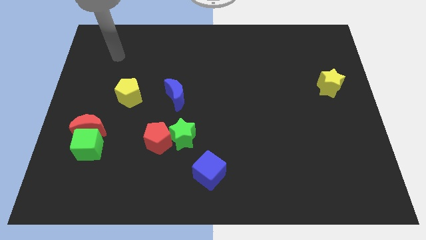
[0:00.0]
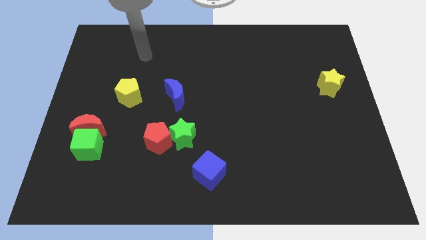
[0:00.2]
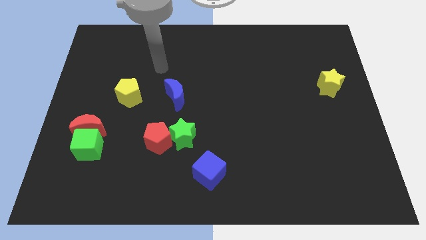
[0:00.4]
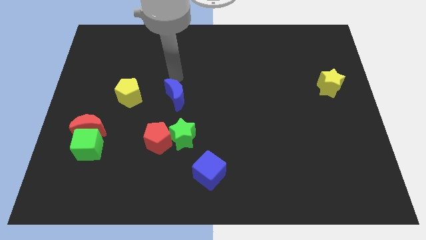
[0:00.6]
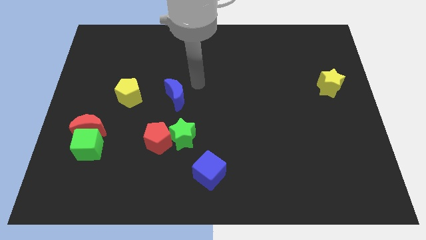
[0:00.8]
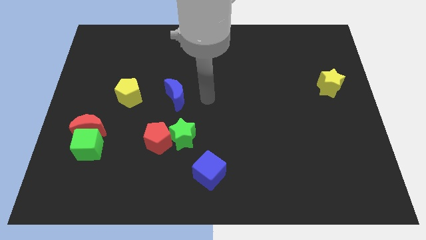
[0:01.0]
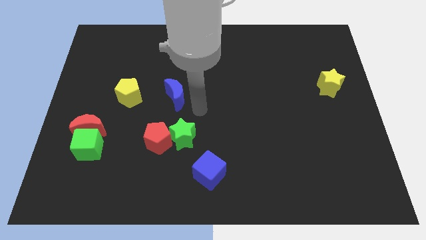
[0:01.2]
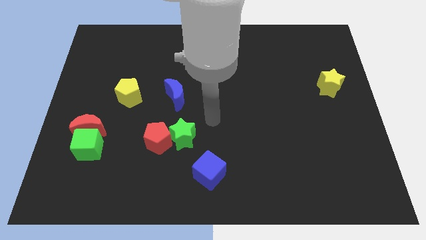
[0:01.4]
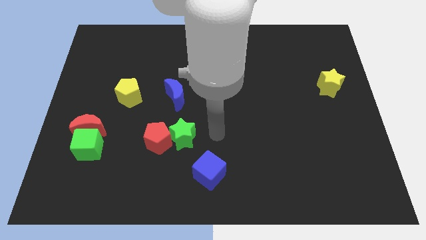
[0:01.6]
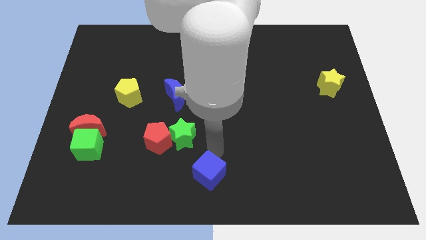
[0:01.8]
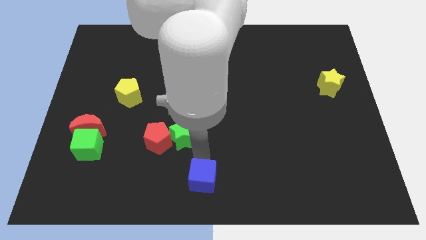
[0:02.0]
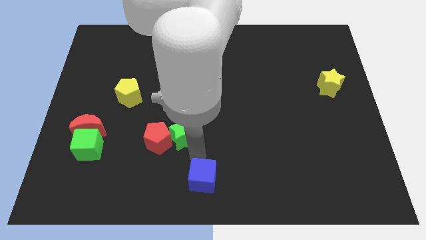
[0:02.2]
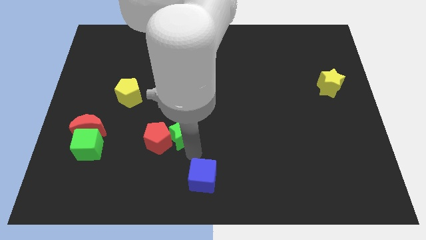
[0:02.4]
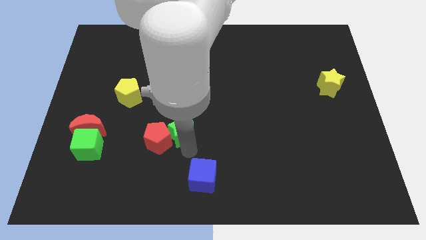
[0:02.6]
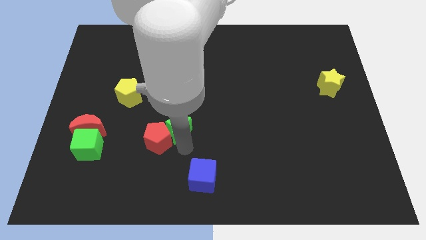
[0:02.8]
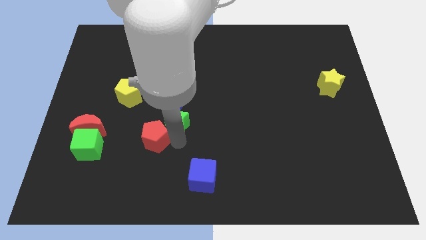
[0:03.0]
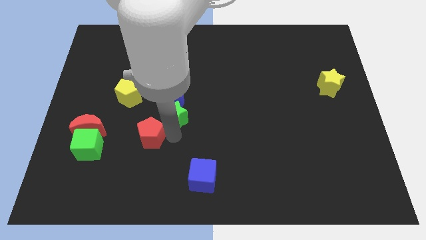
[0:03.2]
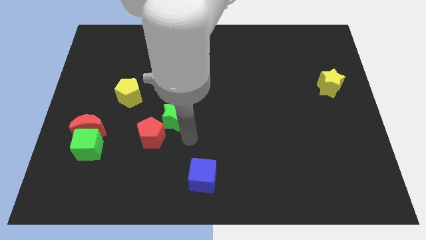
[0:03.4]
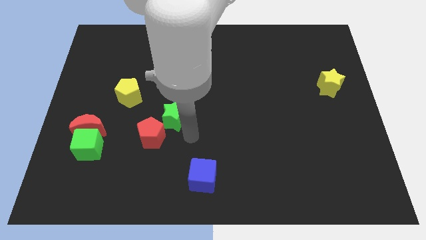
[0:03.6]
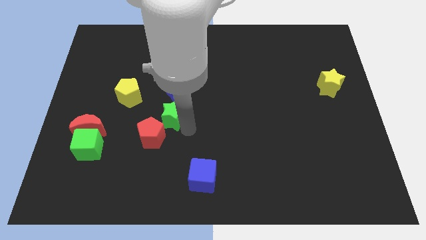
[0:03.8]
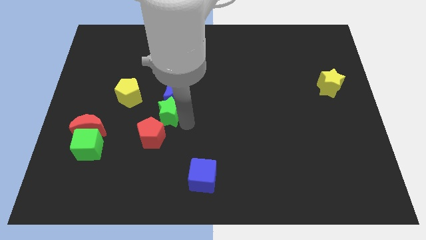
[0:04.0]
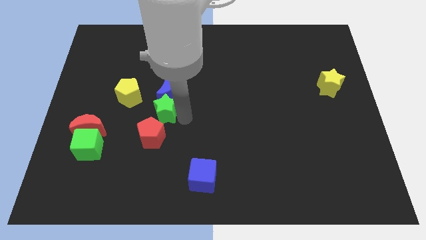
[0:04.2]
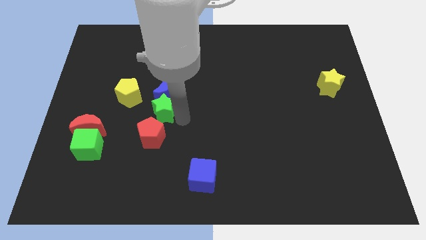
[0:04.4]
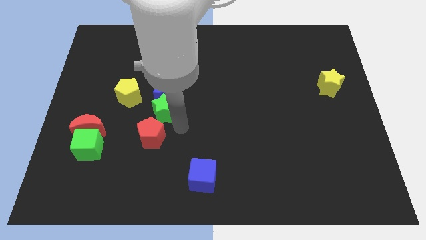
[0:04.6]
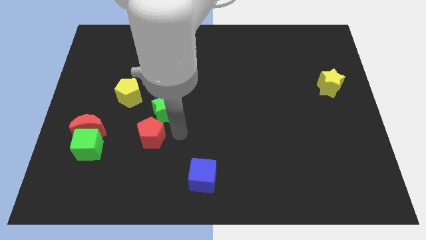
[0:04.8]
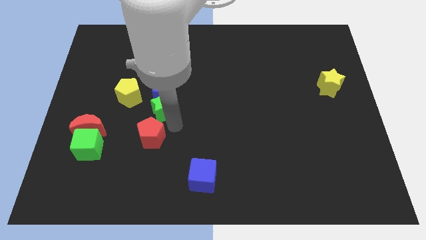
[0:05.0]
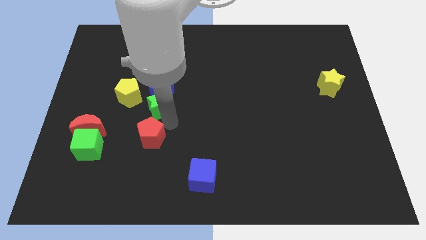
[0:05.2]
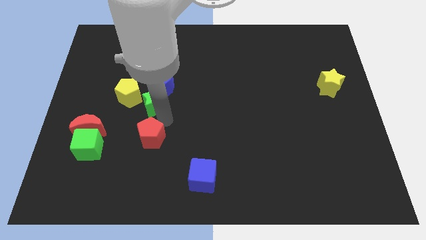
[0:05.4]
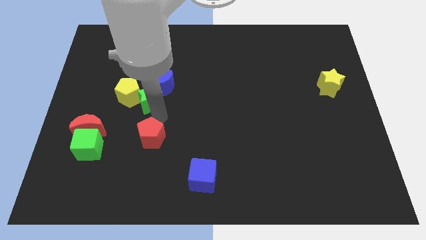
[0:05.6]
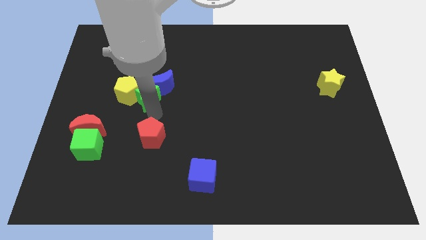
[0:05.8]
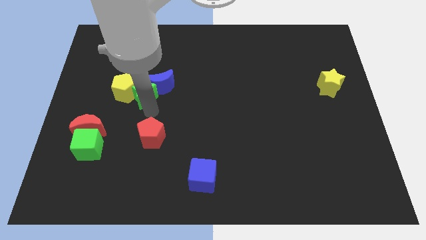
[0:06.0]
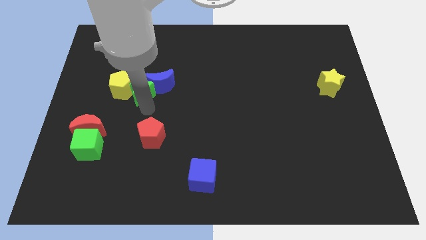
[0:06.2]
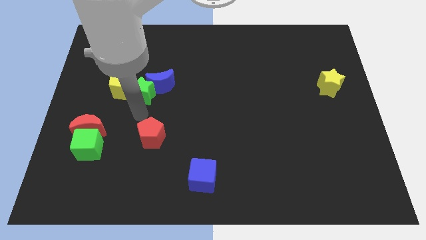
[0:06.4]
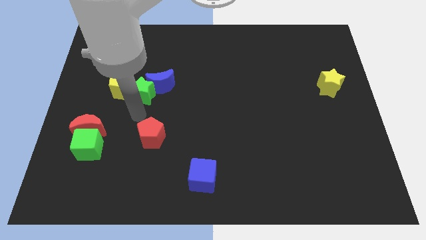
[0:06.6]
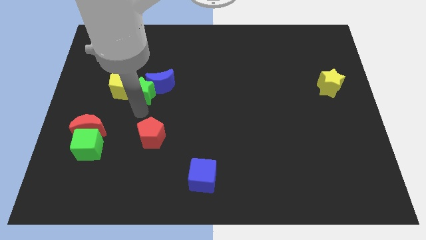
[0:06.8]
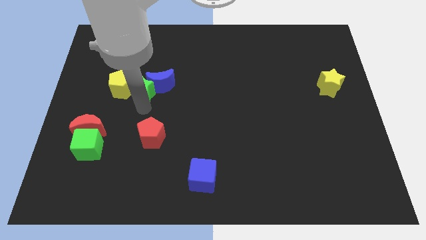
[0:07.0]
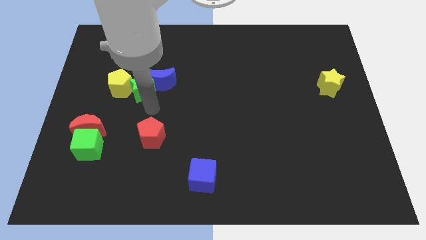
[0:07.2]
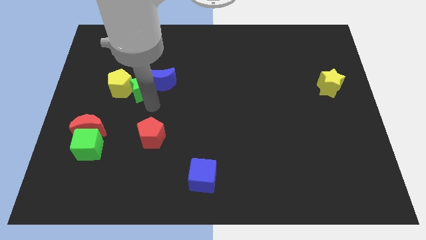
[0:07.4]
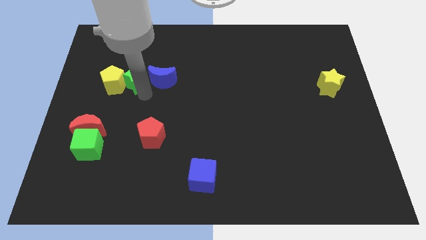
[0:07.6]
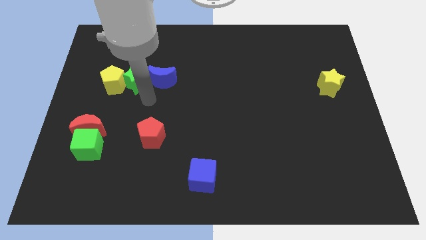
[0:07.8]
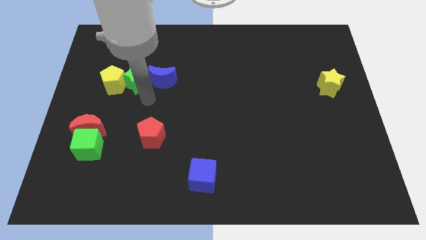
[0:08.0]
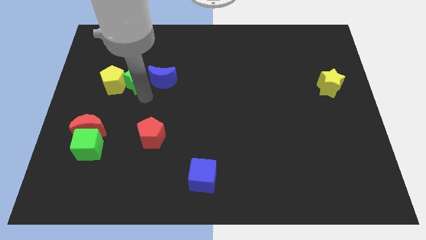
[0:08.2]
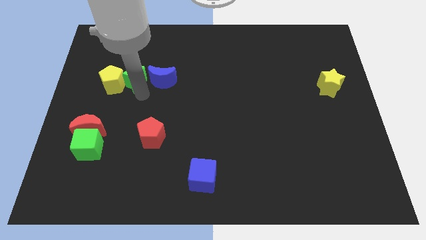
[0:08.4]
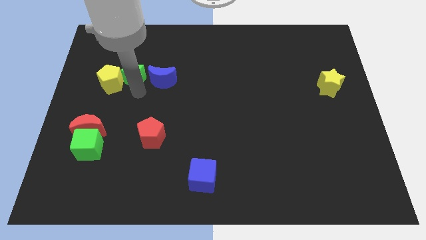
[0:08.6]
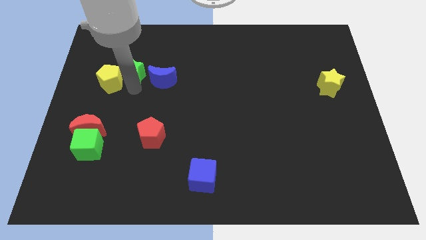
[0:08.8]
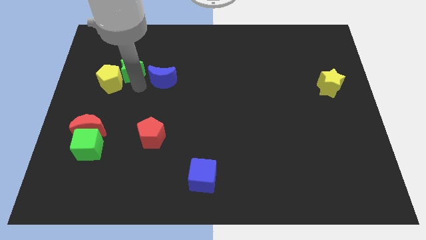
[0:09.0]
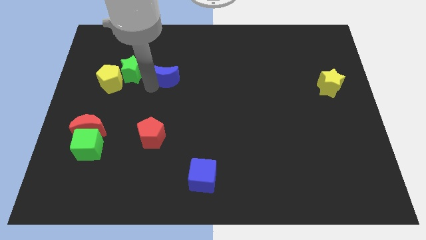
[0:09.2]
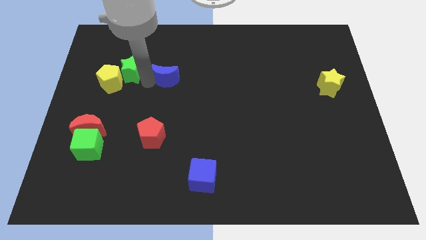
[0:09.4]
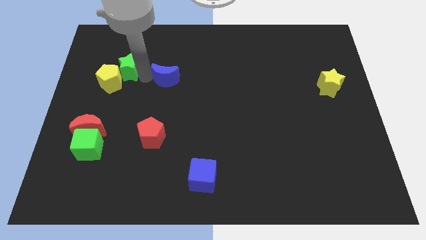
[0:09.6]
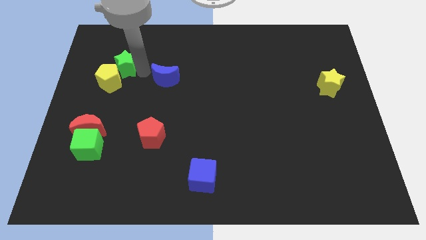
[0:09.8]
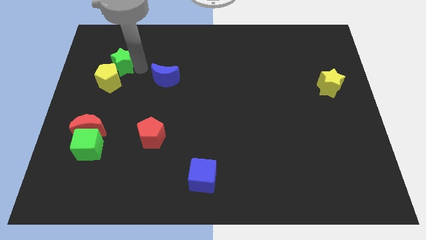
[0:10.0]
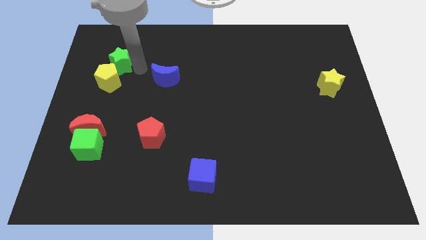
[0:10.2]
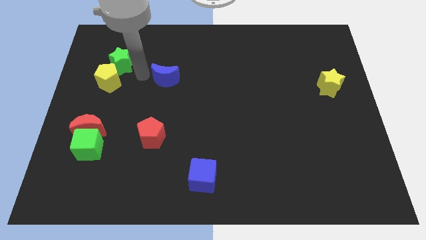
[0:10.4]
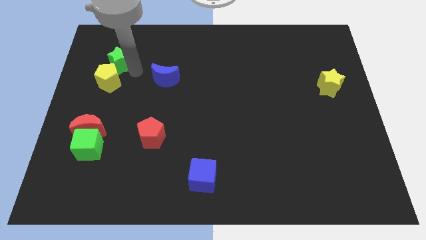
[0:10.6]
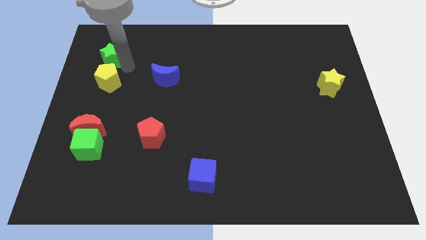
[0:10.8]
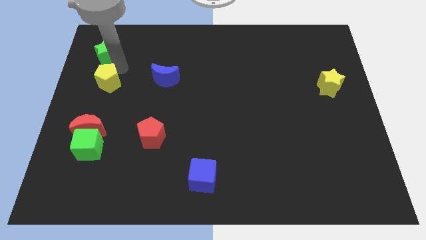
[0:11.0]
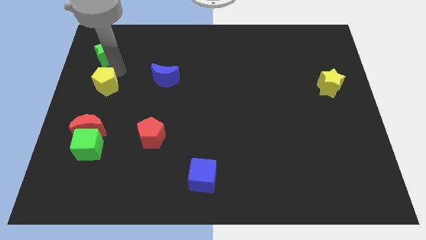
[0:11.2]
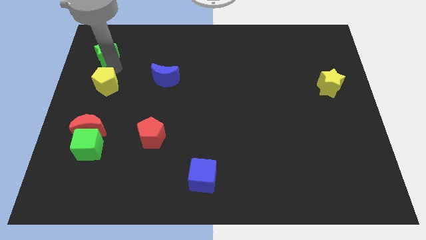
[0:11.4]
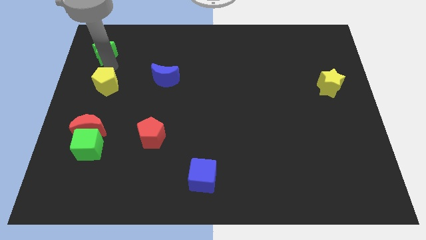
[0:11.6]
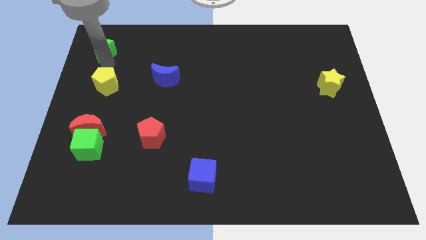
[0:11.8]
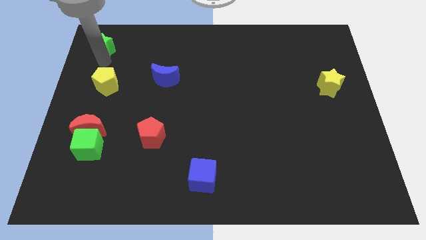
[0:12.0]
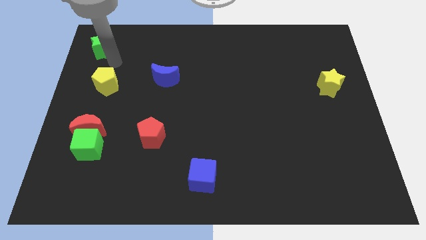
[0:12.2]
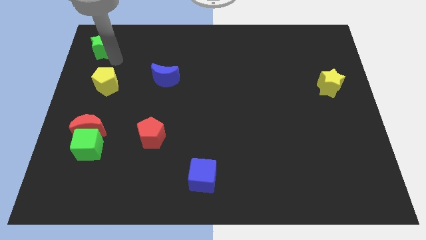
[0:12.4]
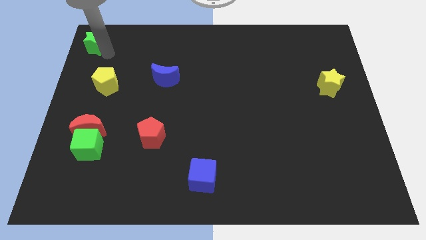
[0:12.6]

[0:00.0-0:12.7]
push the green star to the upper left corner
